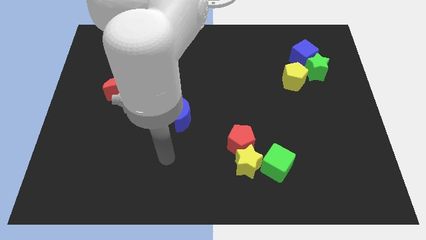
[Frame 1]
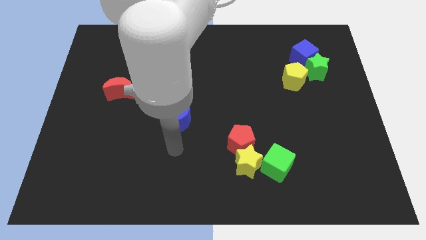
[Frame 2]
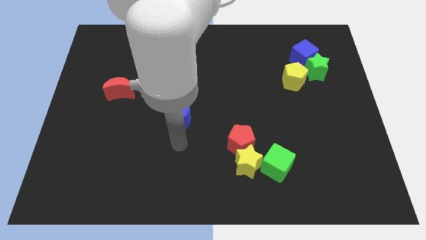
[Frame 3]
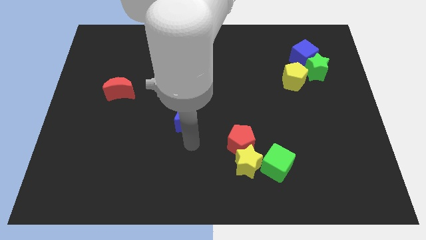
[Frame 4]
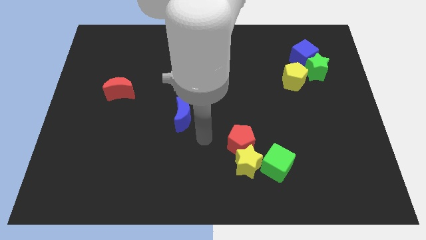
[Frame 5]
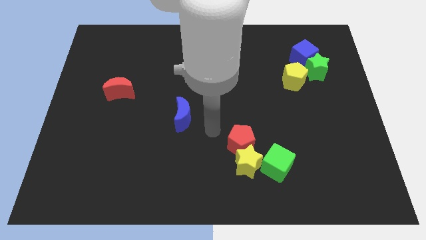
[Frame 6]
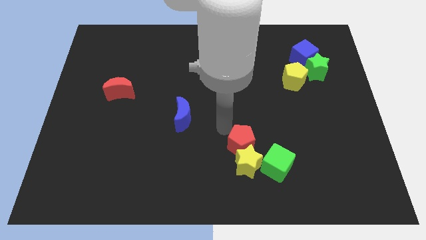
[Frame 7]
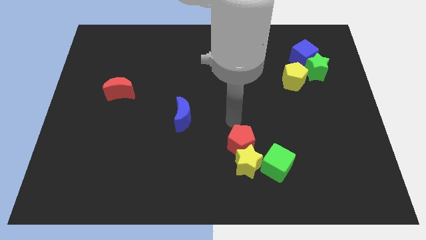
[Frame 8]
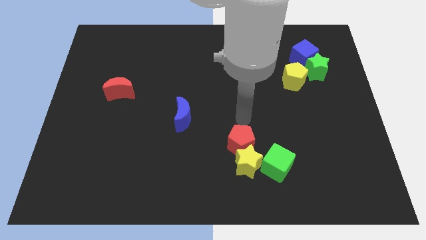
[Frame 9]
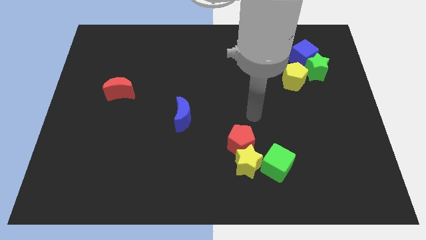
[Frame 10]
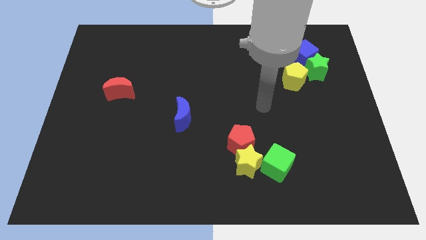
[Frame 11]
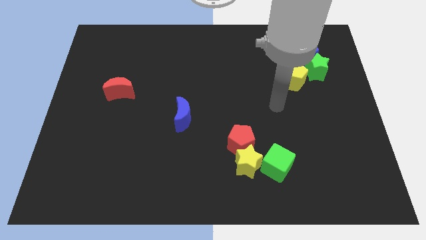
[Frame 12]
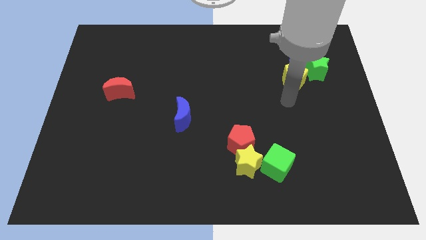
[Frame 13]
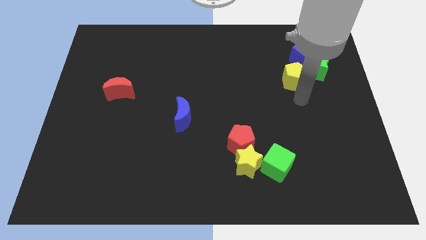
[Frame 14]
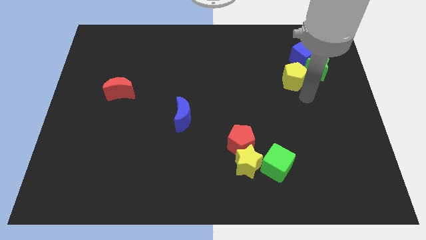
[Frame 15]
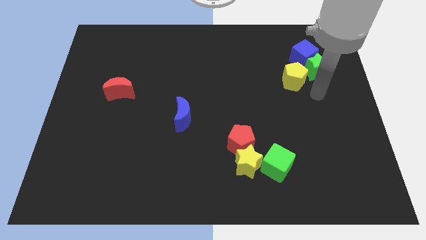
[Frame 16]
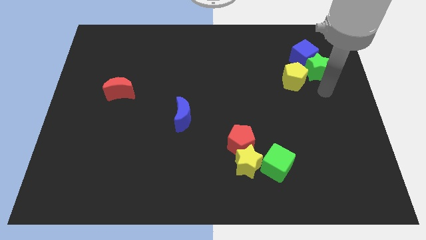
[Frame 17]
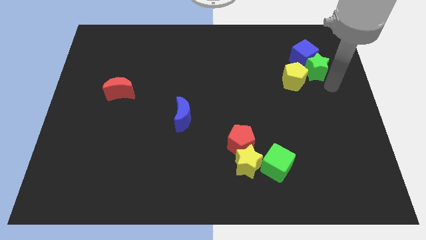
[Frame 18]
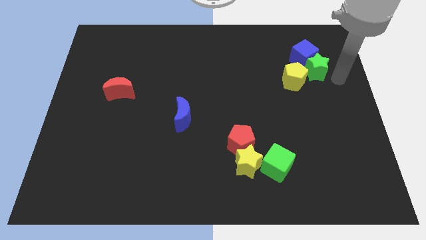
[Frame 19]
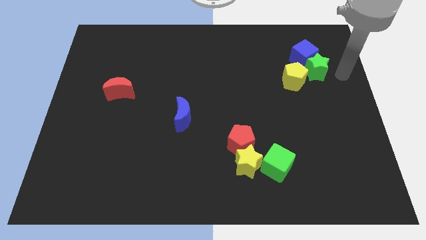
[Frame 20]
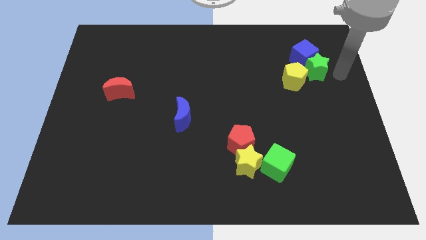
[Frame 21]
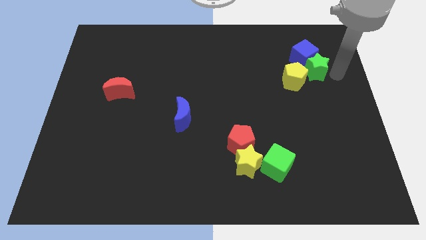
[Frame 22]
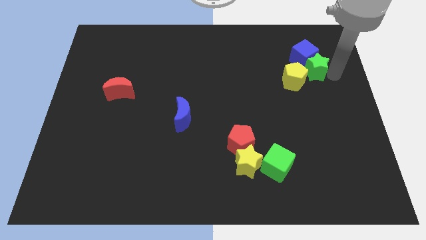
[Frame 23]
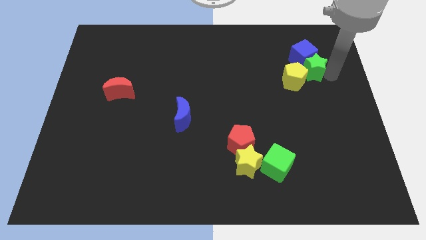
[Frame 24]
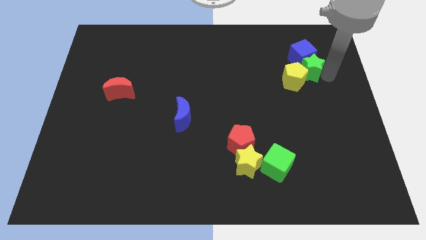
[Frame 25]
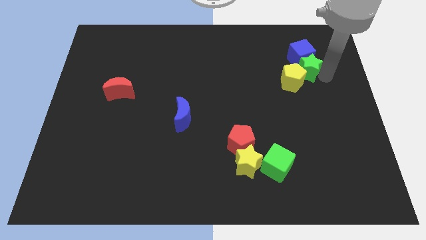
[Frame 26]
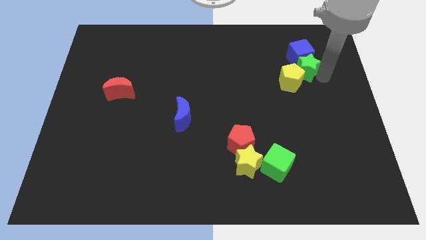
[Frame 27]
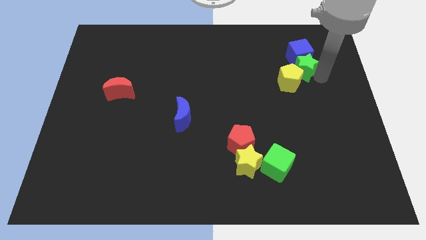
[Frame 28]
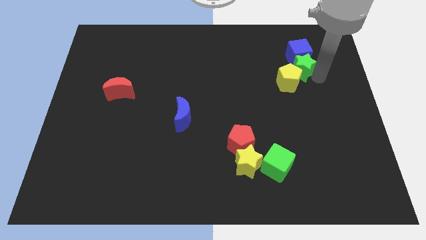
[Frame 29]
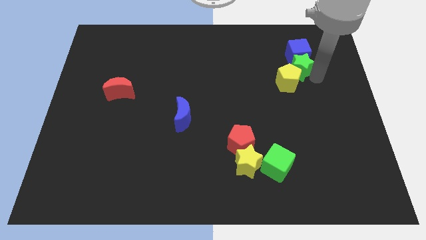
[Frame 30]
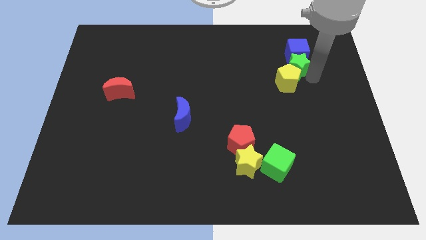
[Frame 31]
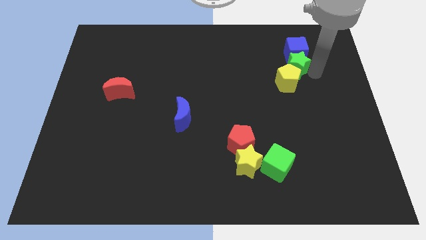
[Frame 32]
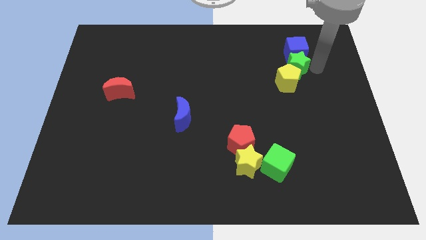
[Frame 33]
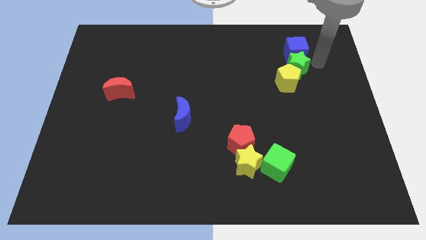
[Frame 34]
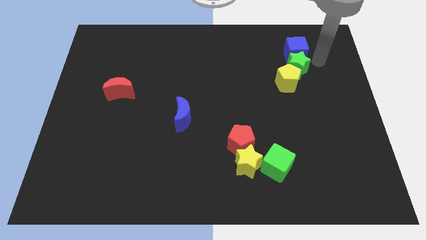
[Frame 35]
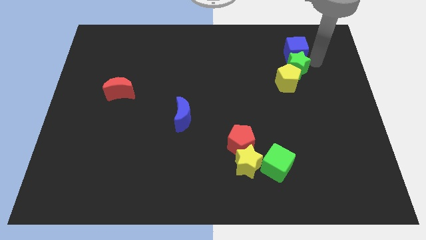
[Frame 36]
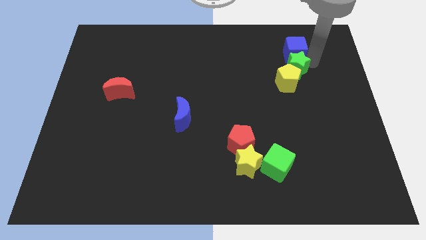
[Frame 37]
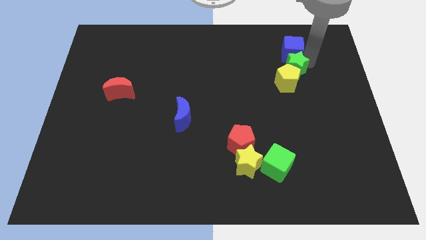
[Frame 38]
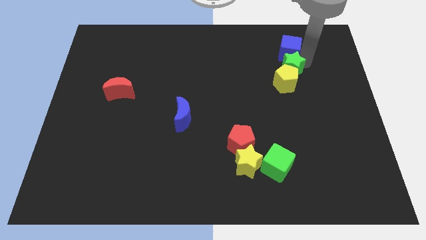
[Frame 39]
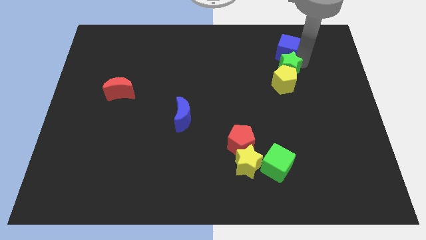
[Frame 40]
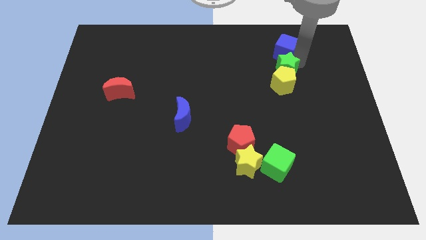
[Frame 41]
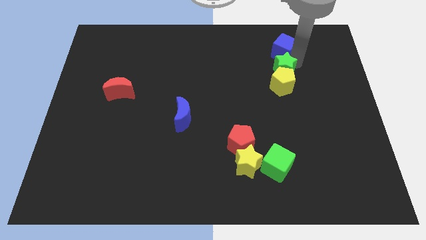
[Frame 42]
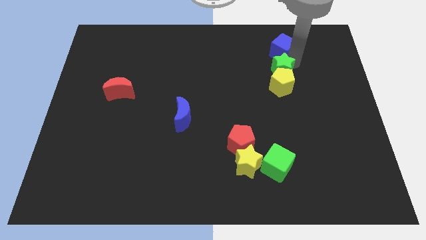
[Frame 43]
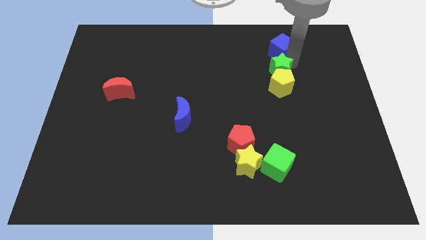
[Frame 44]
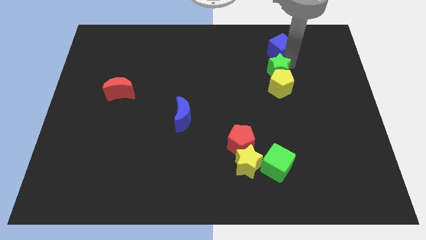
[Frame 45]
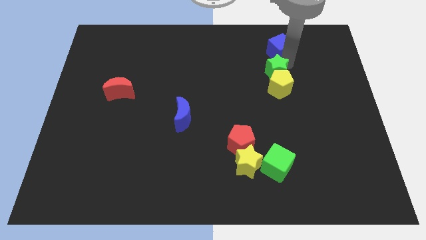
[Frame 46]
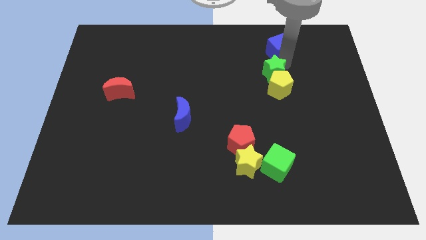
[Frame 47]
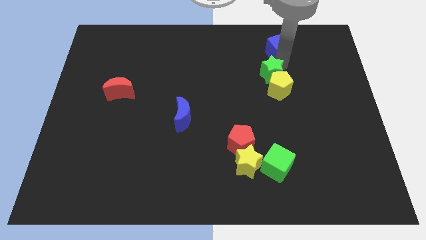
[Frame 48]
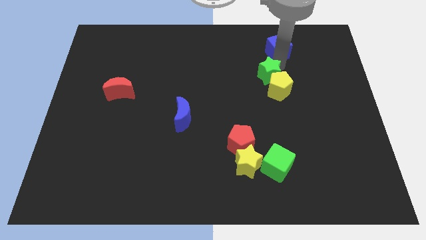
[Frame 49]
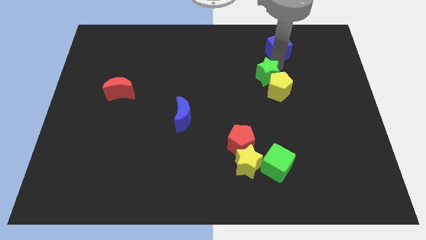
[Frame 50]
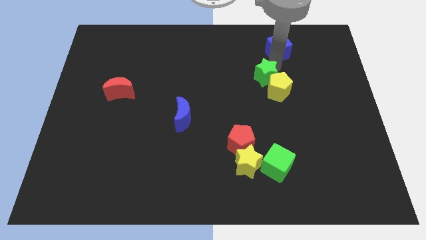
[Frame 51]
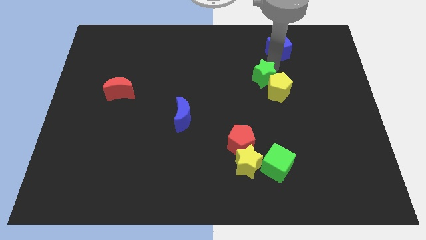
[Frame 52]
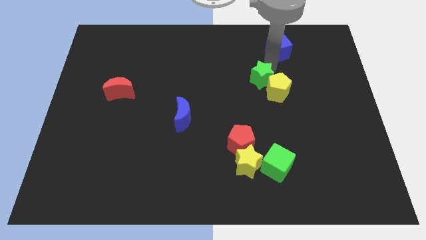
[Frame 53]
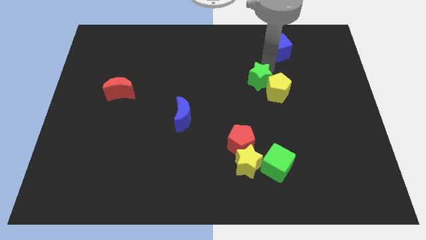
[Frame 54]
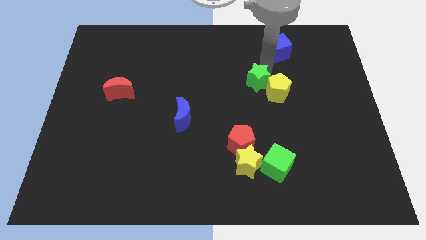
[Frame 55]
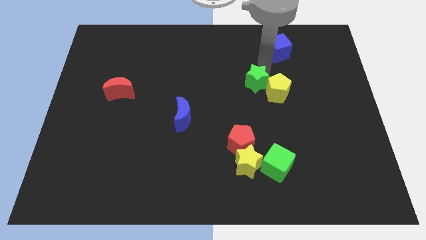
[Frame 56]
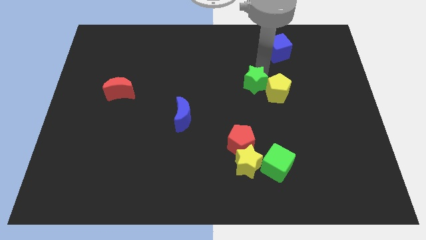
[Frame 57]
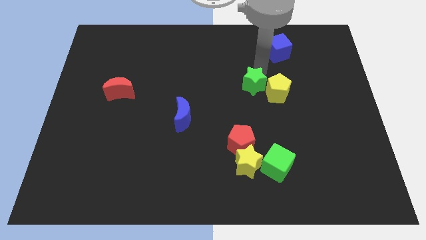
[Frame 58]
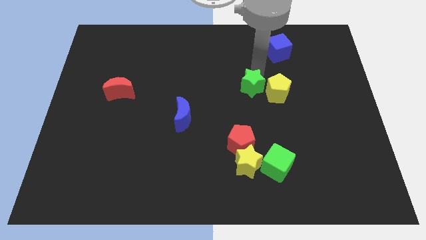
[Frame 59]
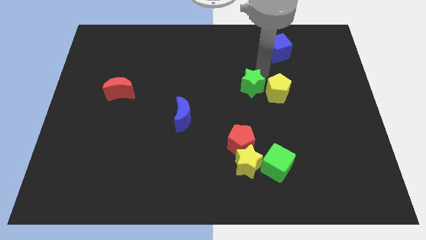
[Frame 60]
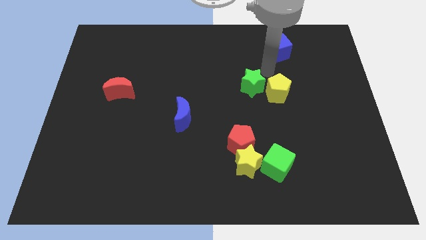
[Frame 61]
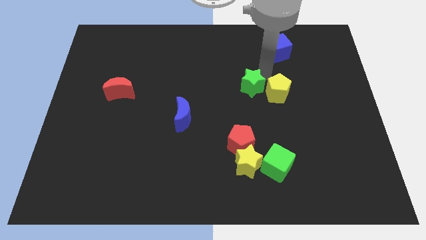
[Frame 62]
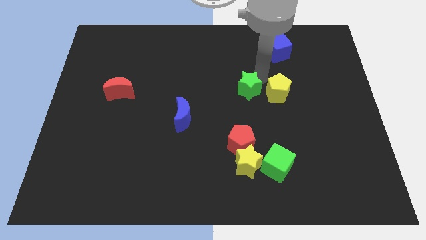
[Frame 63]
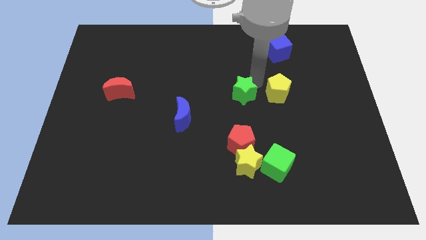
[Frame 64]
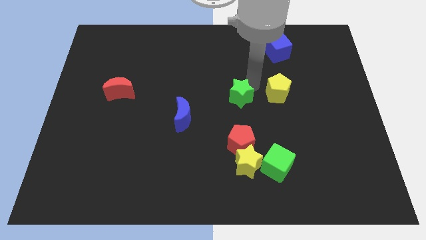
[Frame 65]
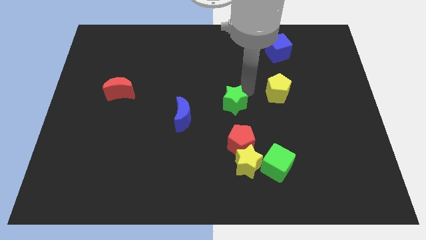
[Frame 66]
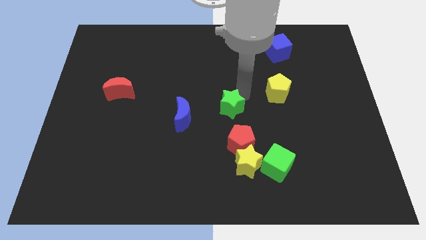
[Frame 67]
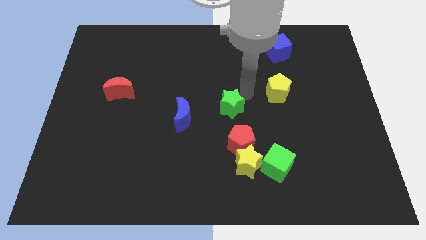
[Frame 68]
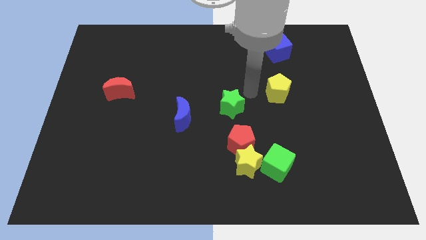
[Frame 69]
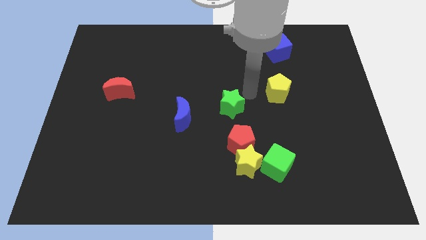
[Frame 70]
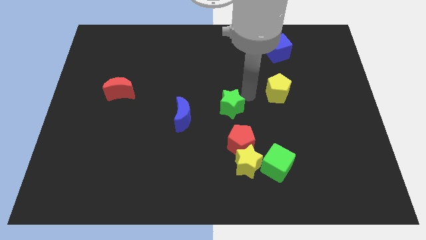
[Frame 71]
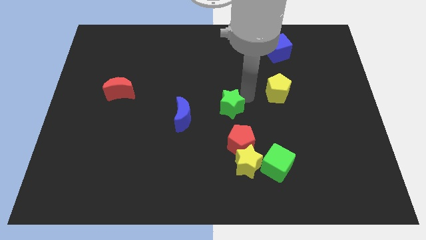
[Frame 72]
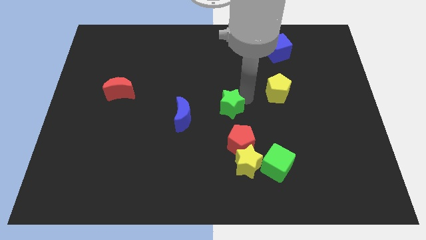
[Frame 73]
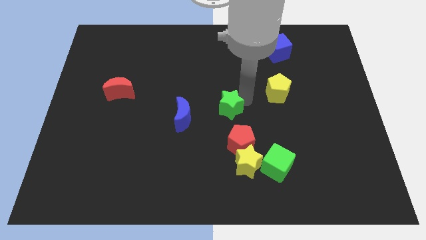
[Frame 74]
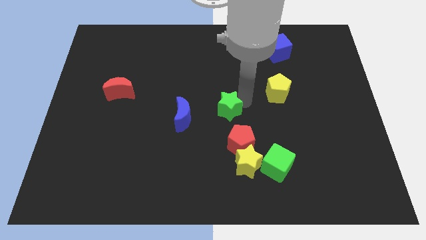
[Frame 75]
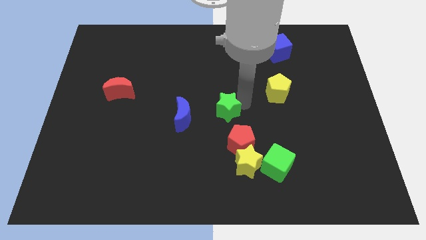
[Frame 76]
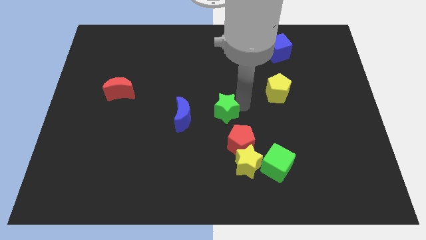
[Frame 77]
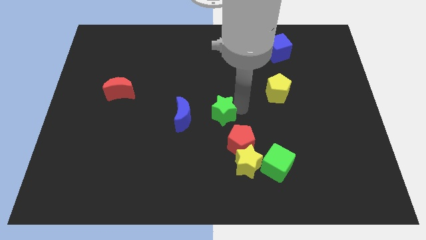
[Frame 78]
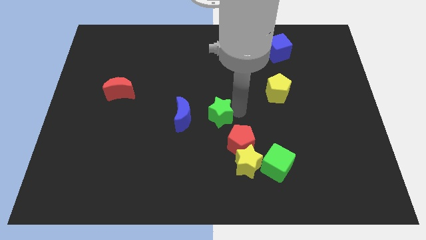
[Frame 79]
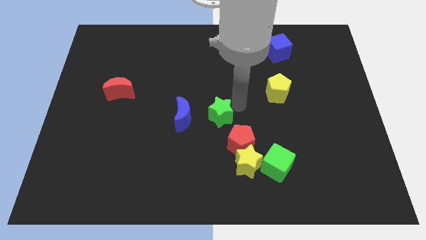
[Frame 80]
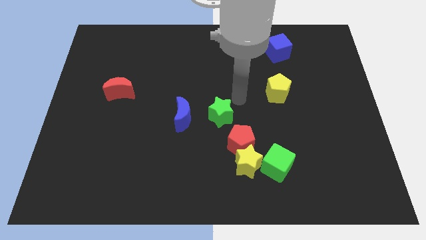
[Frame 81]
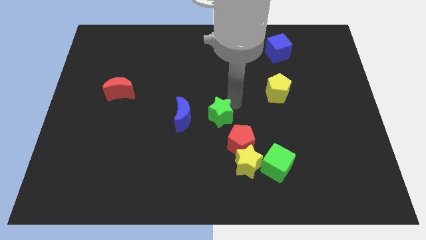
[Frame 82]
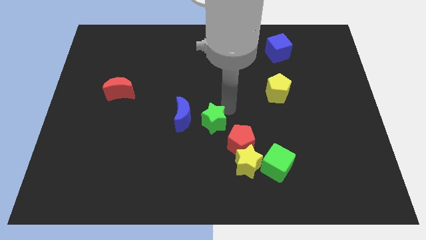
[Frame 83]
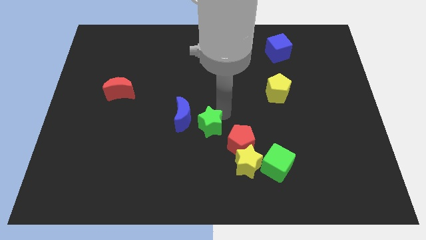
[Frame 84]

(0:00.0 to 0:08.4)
slide the green star to the left side of the red pentagon
